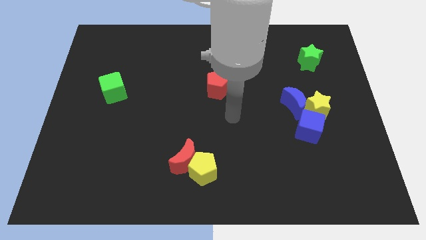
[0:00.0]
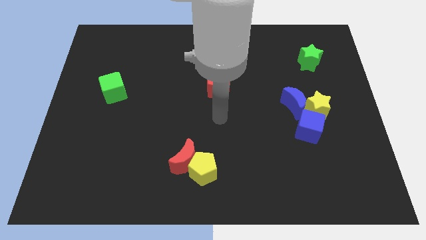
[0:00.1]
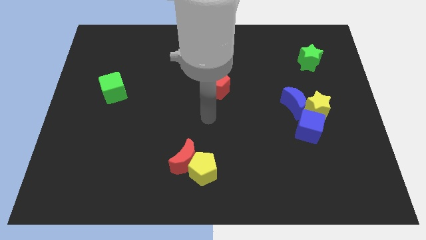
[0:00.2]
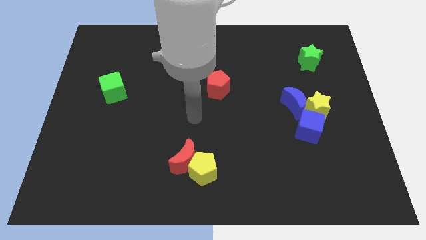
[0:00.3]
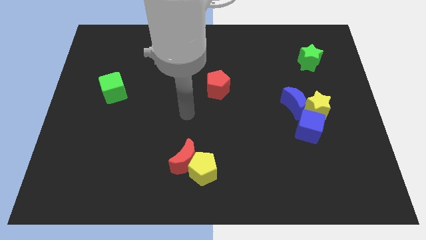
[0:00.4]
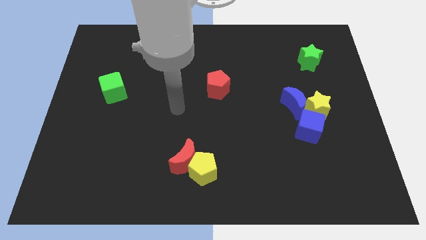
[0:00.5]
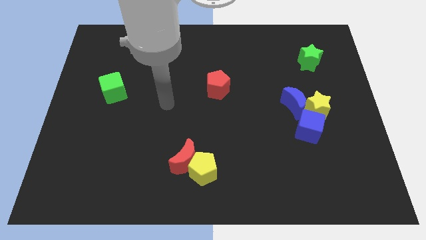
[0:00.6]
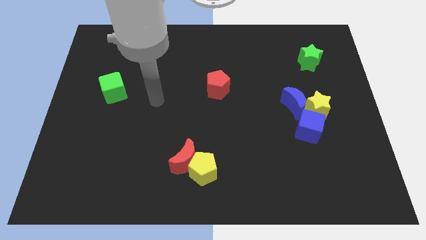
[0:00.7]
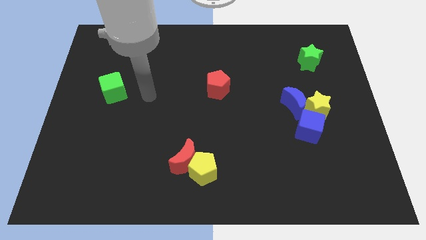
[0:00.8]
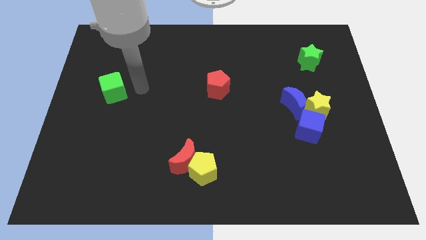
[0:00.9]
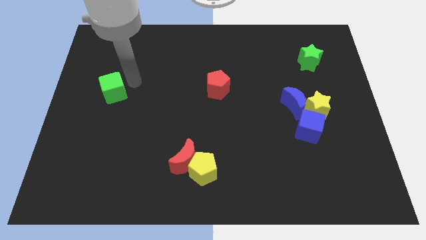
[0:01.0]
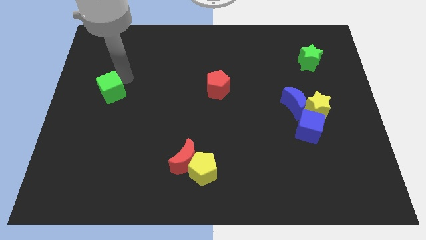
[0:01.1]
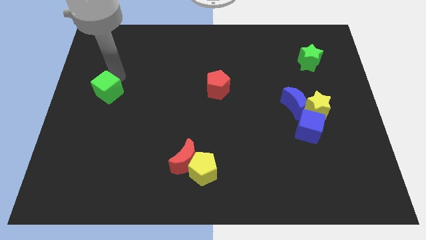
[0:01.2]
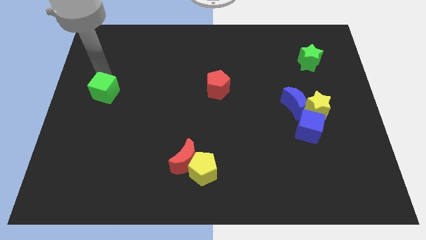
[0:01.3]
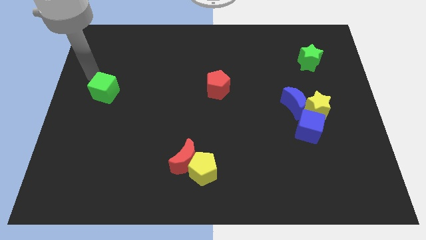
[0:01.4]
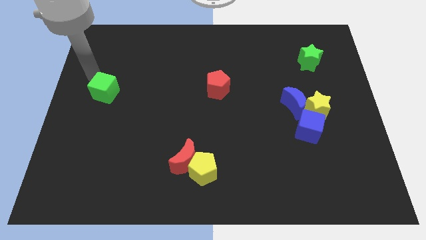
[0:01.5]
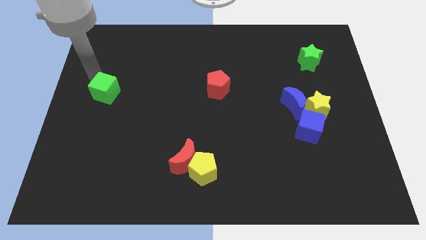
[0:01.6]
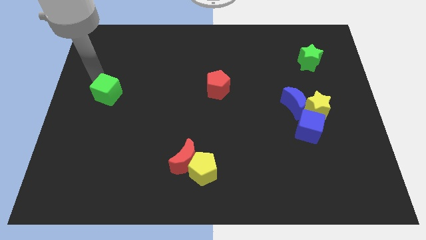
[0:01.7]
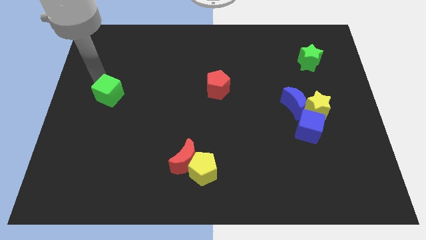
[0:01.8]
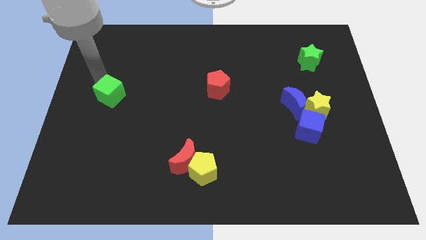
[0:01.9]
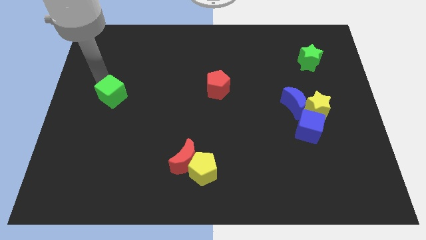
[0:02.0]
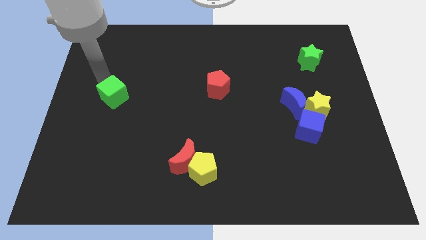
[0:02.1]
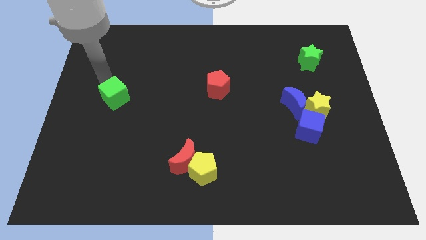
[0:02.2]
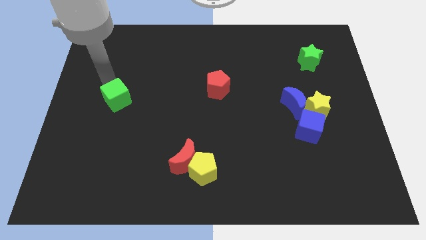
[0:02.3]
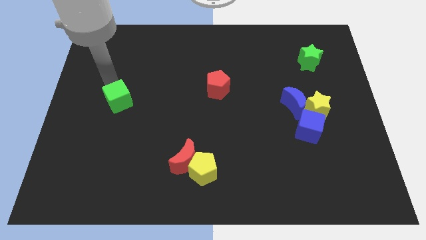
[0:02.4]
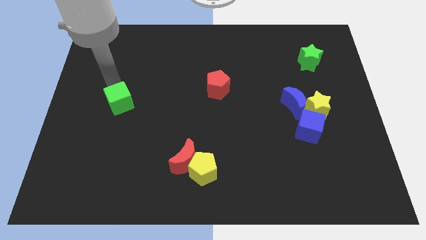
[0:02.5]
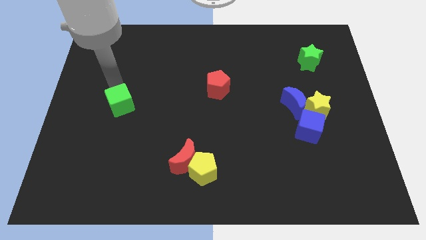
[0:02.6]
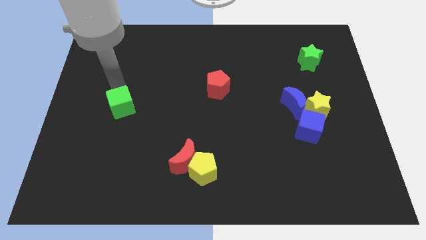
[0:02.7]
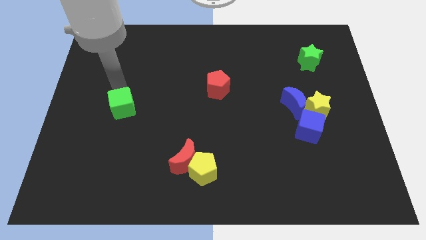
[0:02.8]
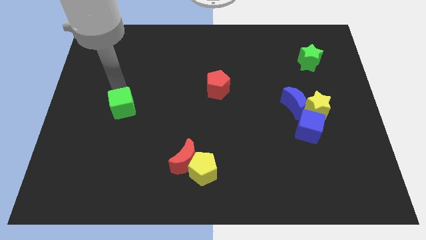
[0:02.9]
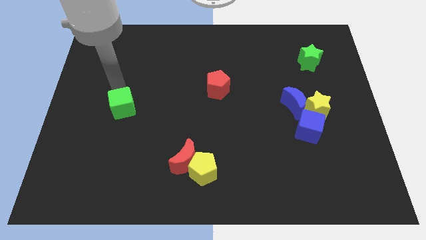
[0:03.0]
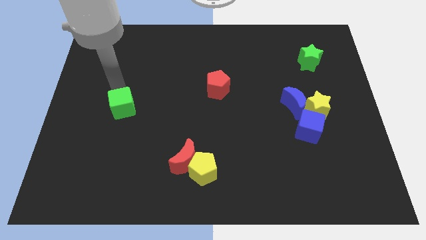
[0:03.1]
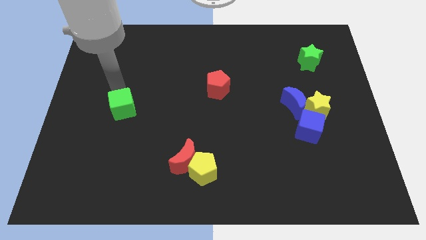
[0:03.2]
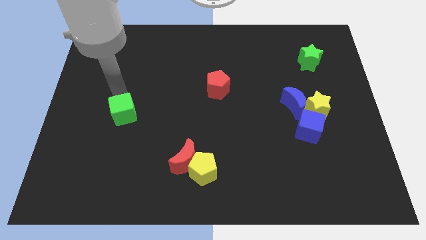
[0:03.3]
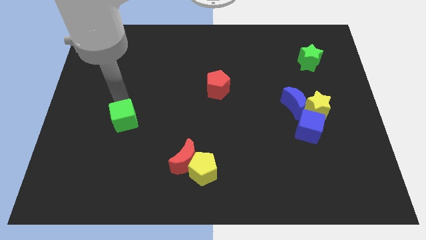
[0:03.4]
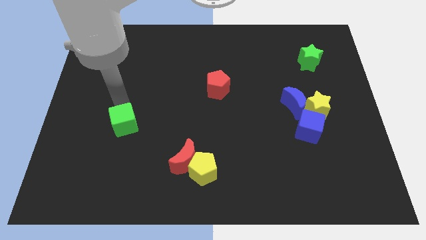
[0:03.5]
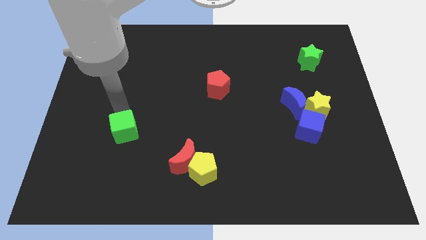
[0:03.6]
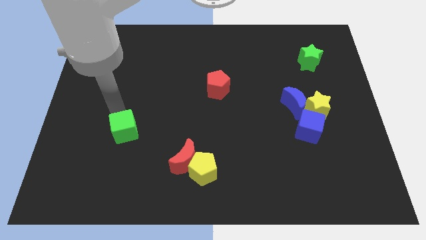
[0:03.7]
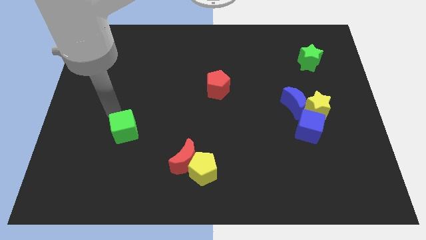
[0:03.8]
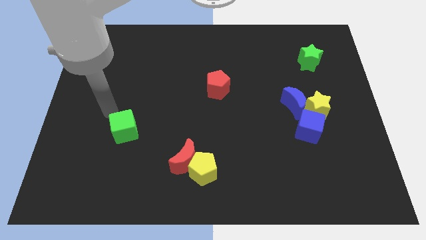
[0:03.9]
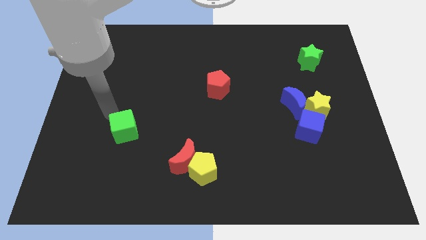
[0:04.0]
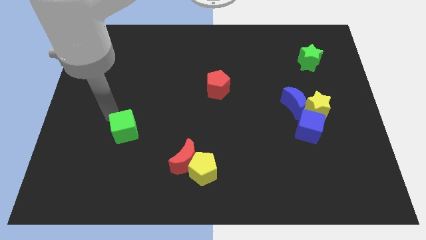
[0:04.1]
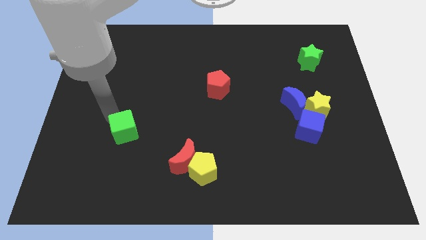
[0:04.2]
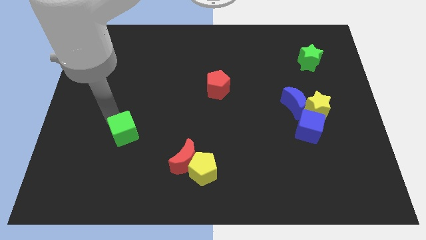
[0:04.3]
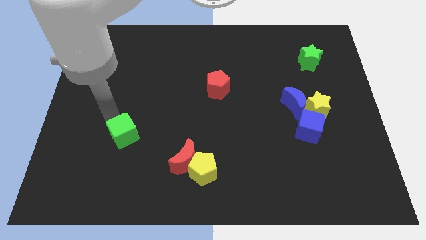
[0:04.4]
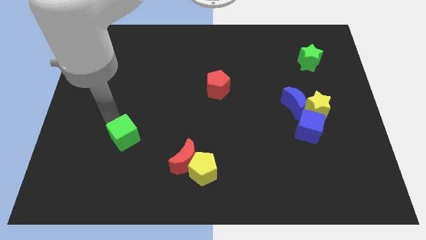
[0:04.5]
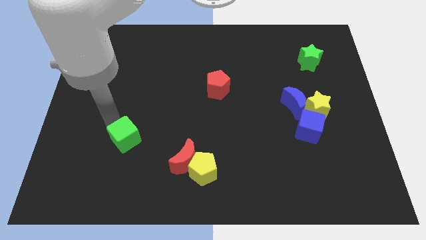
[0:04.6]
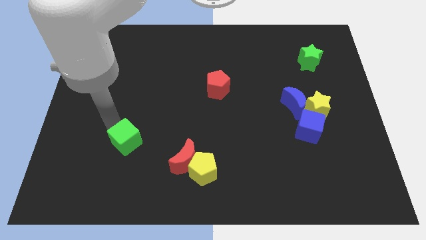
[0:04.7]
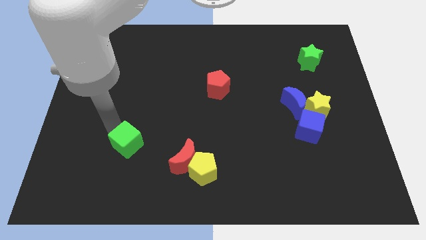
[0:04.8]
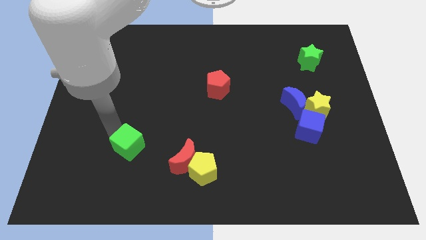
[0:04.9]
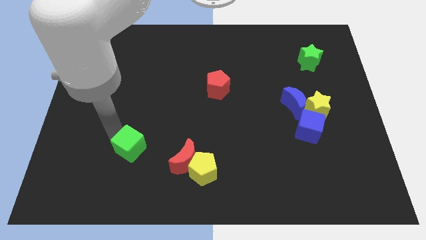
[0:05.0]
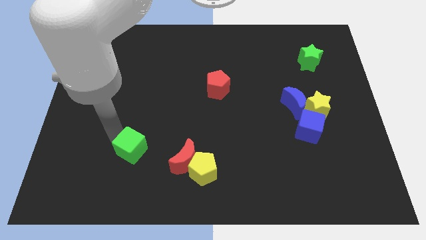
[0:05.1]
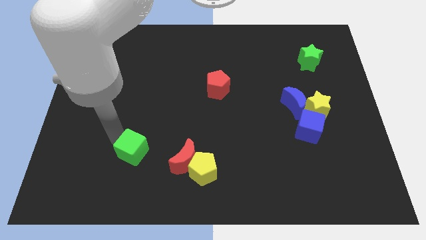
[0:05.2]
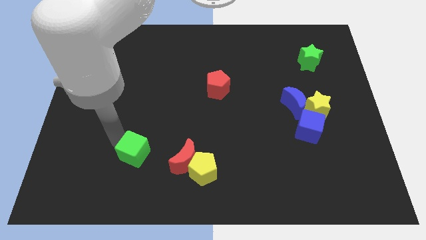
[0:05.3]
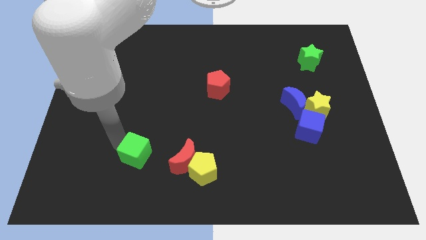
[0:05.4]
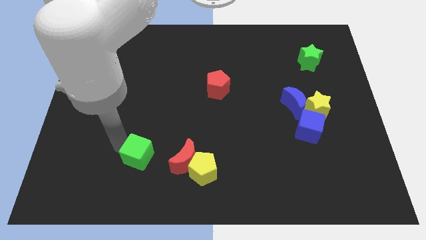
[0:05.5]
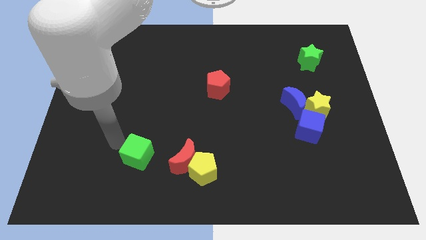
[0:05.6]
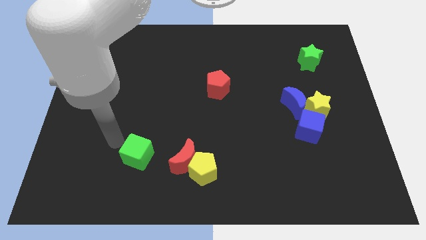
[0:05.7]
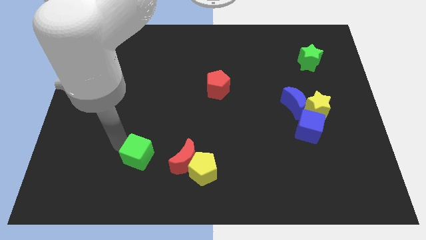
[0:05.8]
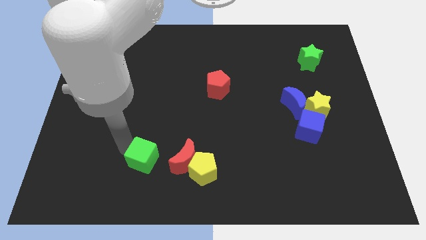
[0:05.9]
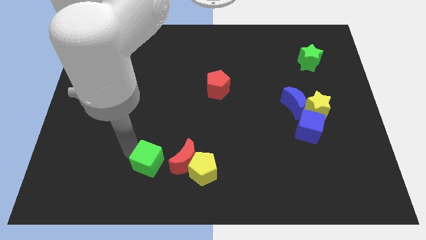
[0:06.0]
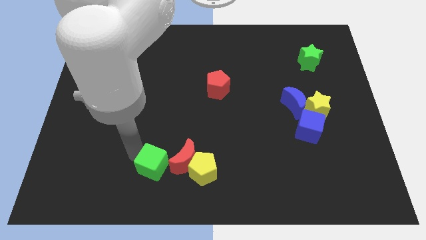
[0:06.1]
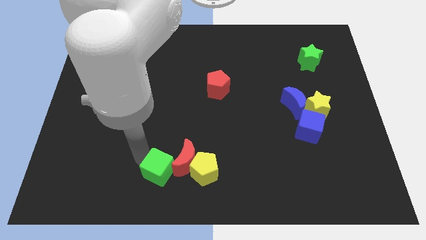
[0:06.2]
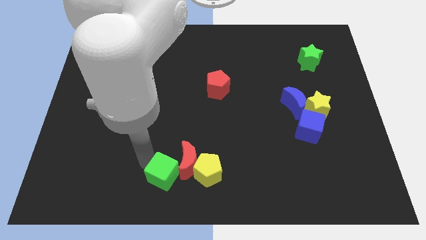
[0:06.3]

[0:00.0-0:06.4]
move the green cube to the bottom
